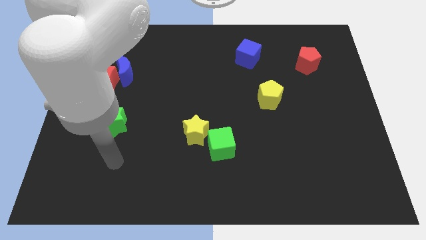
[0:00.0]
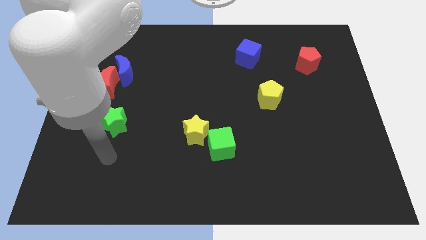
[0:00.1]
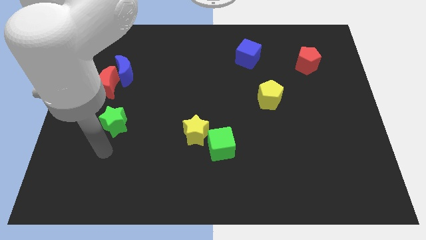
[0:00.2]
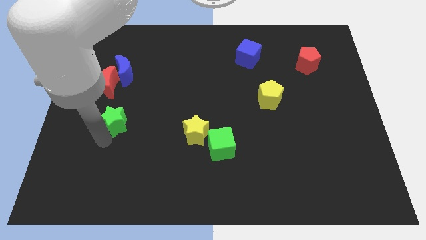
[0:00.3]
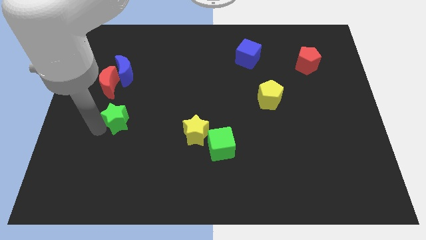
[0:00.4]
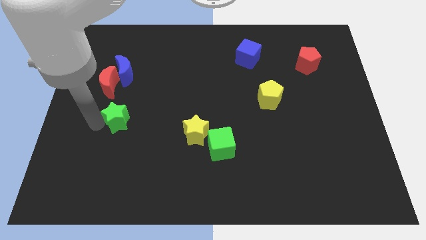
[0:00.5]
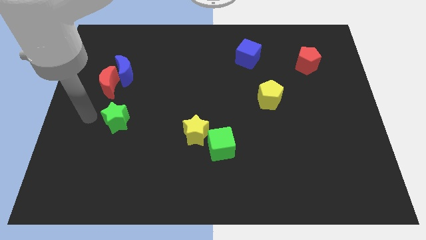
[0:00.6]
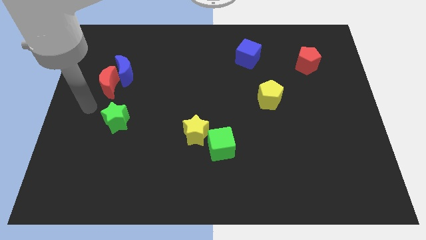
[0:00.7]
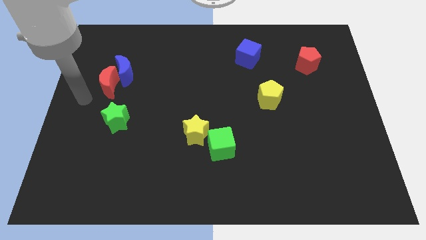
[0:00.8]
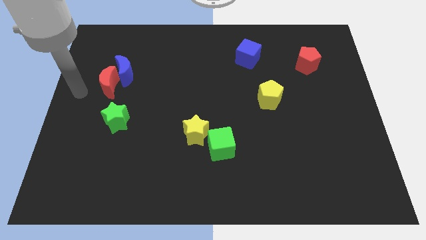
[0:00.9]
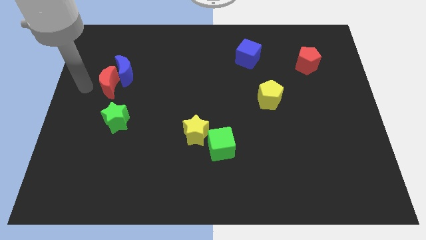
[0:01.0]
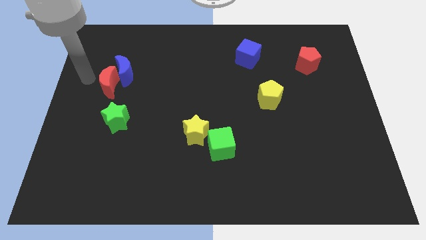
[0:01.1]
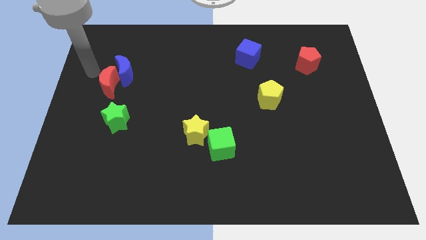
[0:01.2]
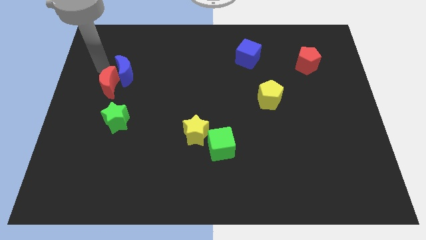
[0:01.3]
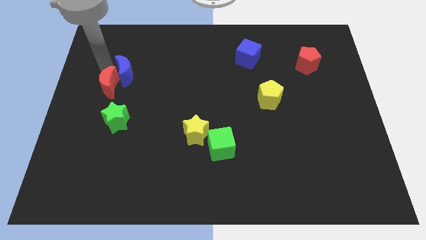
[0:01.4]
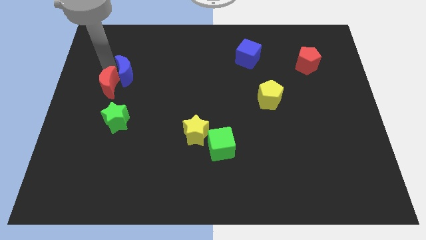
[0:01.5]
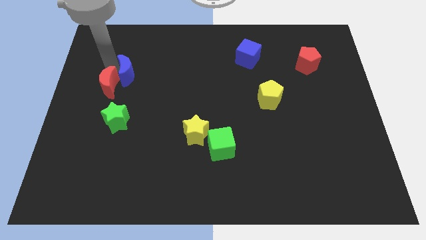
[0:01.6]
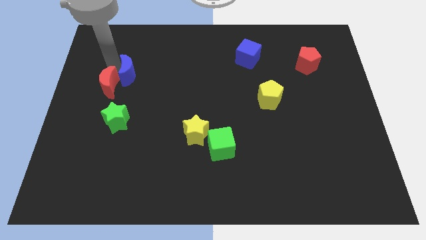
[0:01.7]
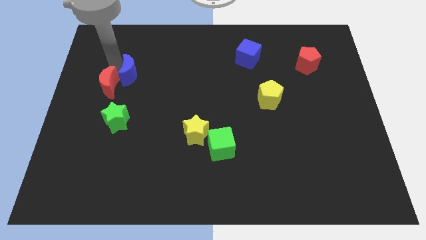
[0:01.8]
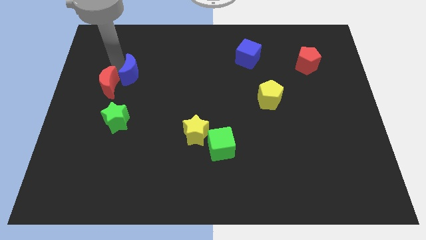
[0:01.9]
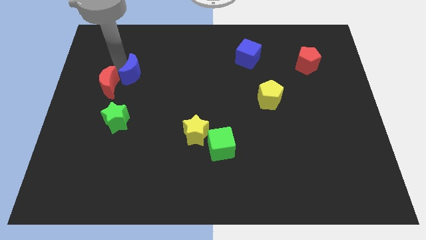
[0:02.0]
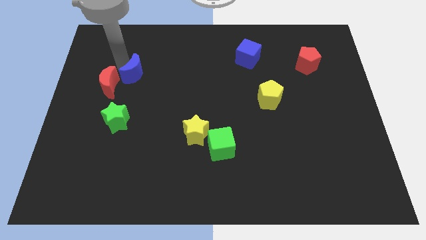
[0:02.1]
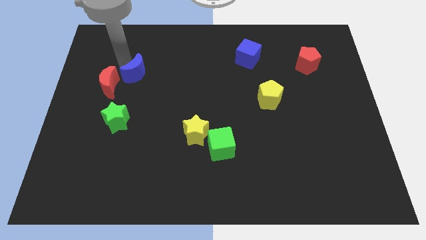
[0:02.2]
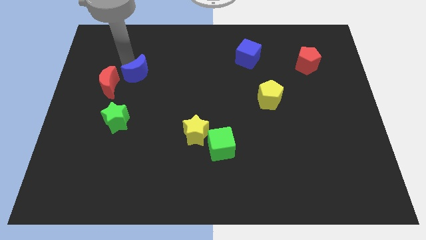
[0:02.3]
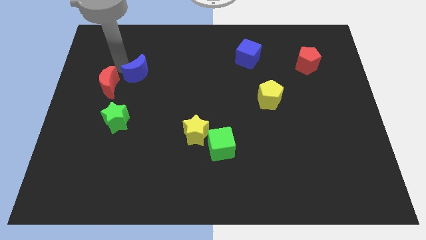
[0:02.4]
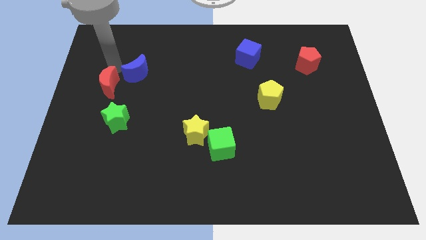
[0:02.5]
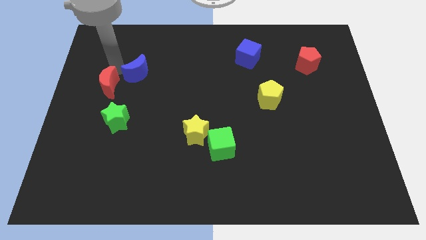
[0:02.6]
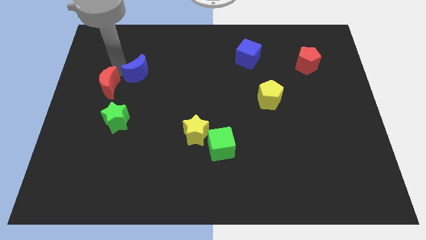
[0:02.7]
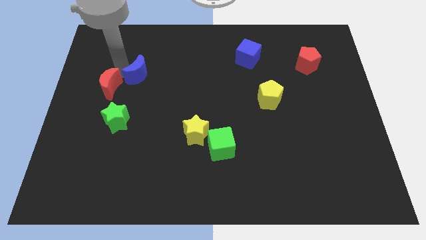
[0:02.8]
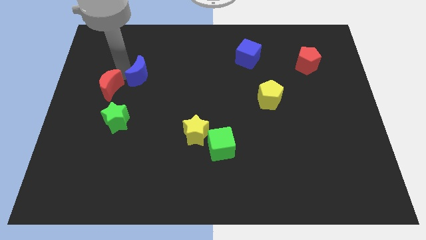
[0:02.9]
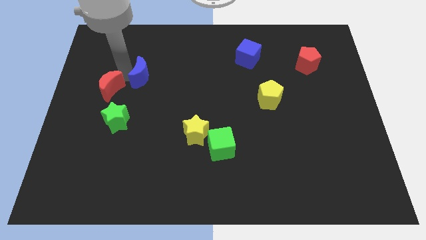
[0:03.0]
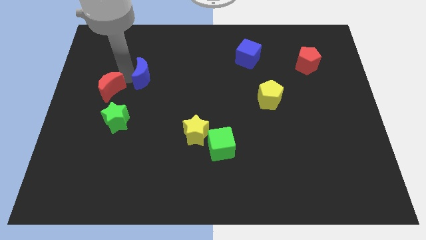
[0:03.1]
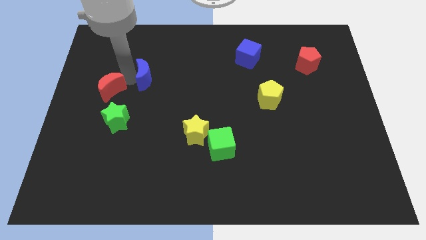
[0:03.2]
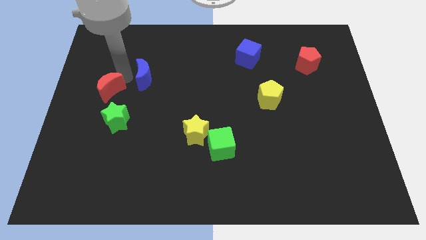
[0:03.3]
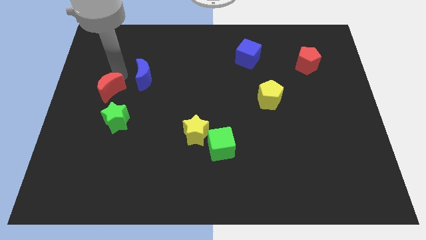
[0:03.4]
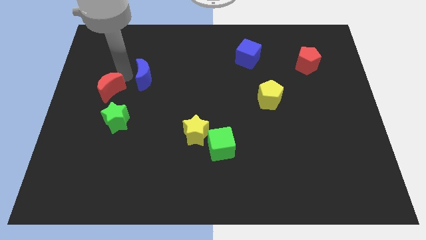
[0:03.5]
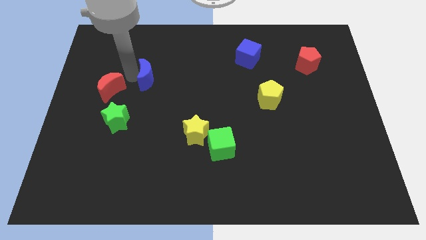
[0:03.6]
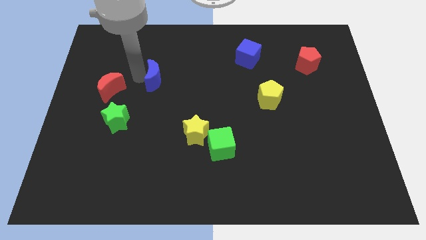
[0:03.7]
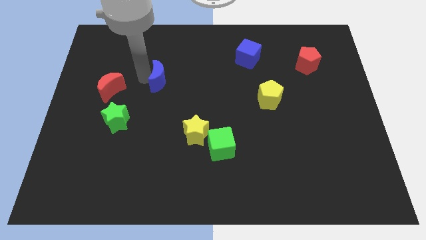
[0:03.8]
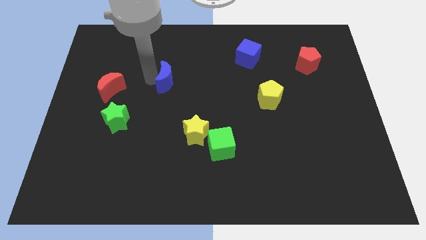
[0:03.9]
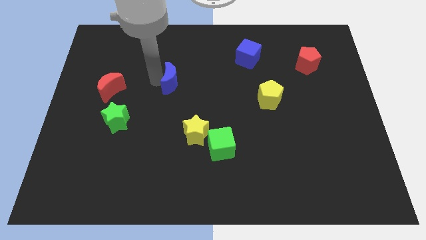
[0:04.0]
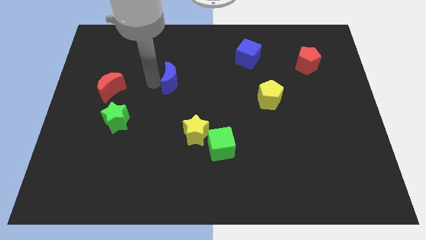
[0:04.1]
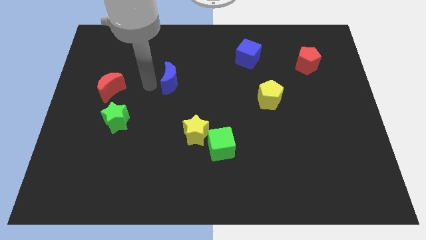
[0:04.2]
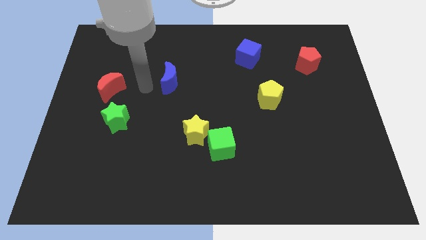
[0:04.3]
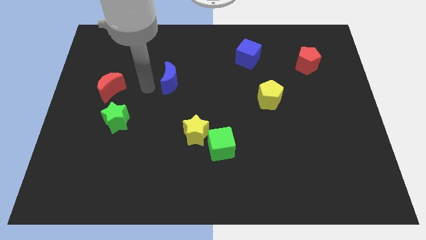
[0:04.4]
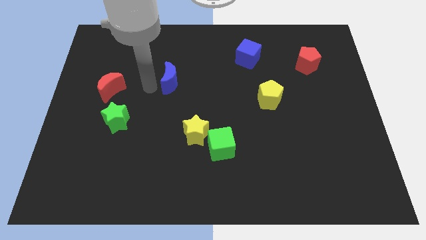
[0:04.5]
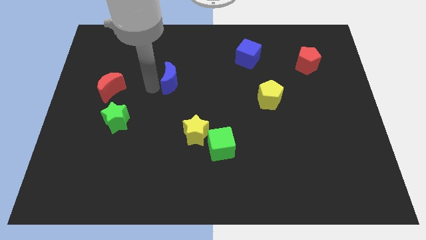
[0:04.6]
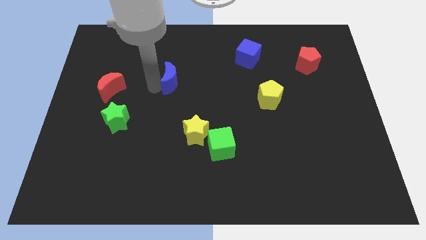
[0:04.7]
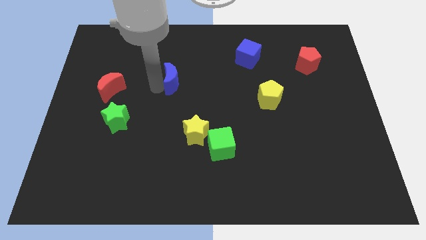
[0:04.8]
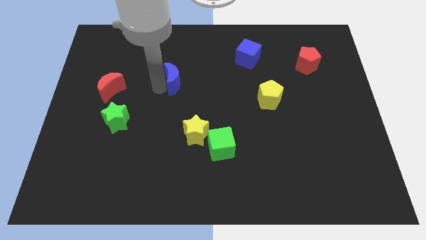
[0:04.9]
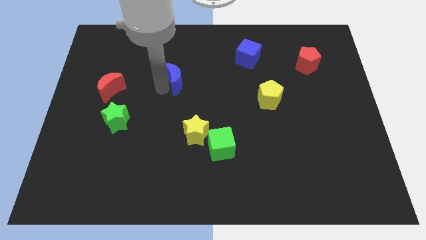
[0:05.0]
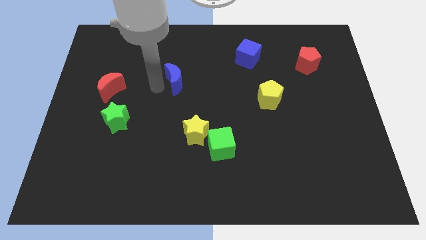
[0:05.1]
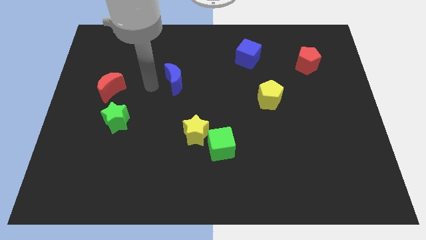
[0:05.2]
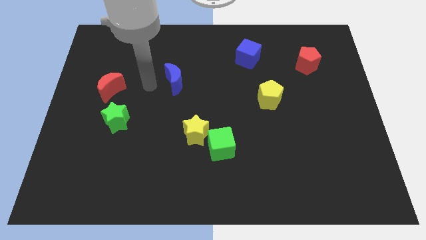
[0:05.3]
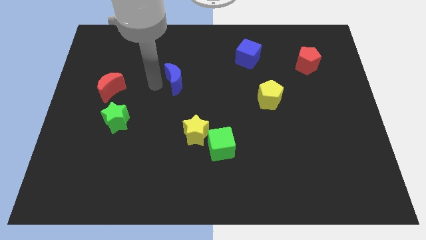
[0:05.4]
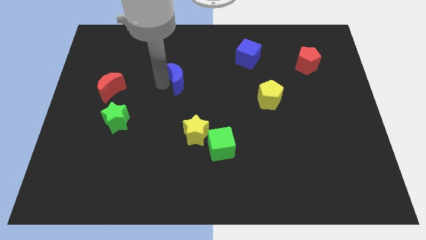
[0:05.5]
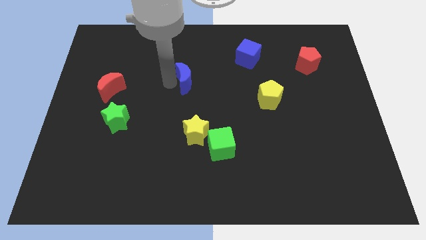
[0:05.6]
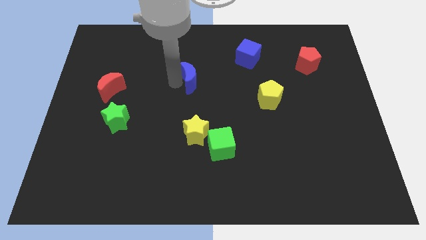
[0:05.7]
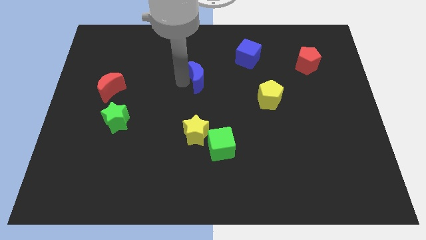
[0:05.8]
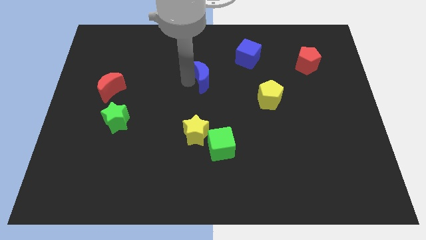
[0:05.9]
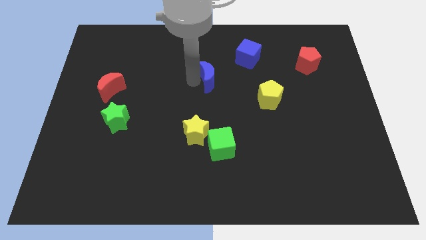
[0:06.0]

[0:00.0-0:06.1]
push the blue moon right

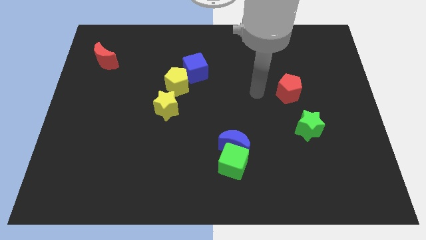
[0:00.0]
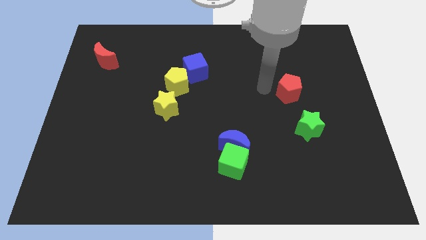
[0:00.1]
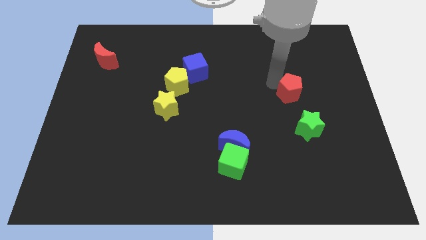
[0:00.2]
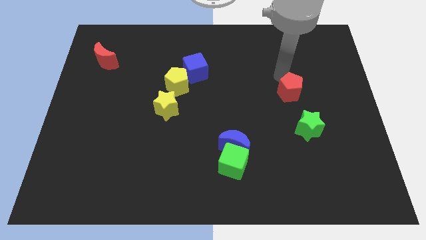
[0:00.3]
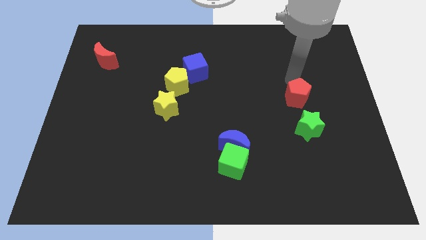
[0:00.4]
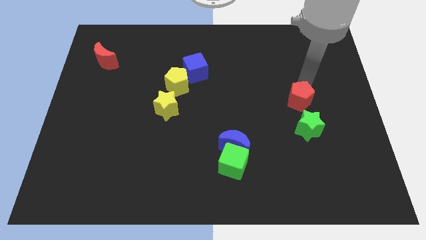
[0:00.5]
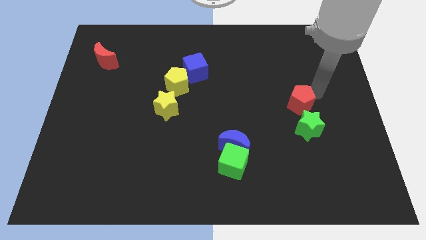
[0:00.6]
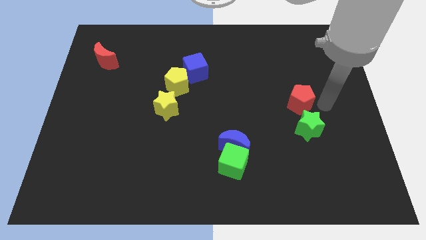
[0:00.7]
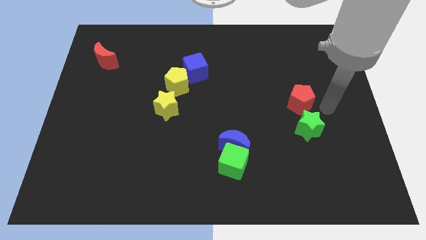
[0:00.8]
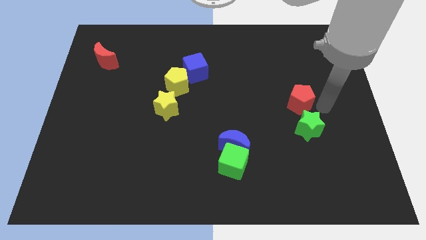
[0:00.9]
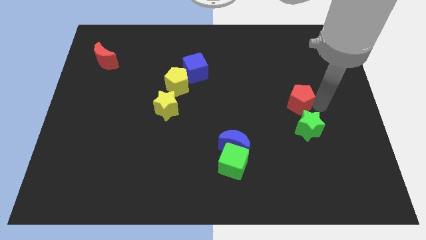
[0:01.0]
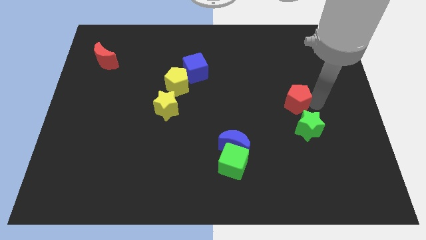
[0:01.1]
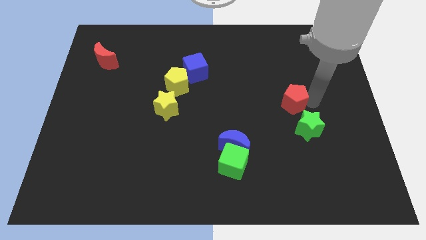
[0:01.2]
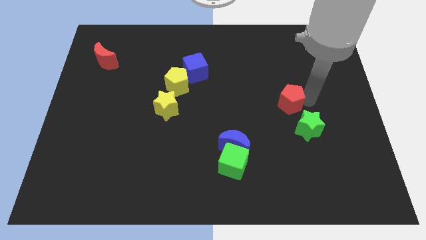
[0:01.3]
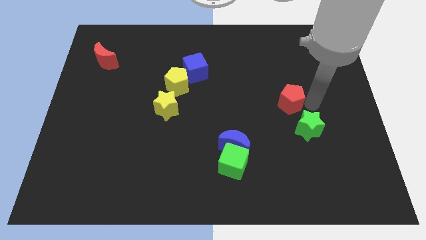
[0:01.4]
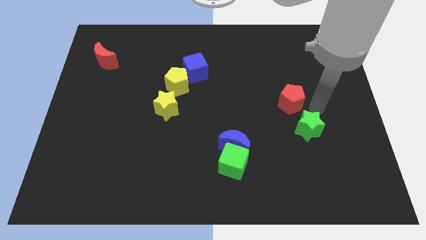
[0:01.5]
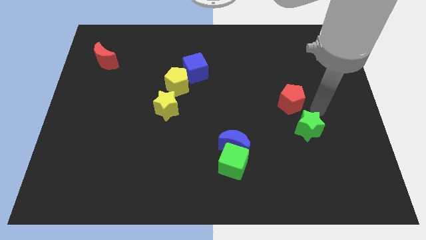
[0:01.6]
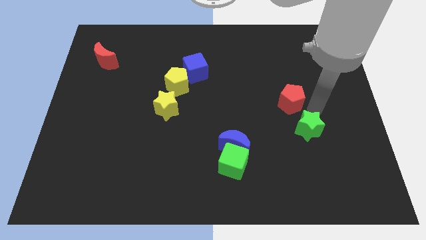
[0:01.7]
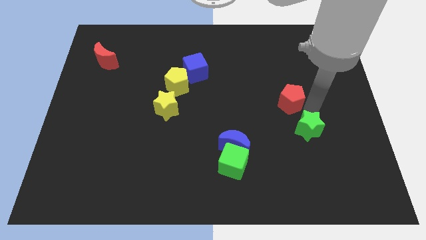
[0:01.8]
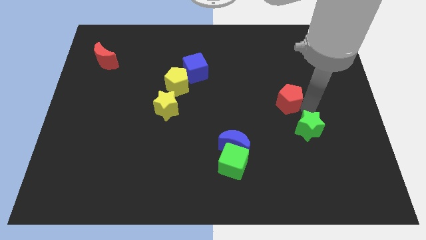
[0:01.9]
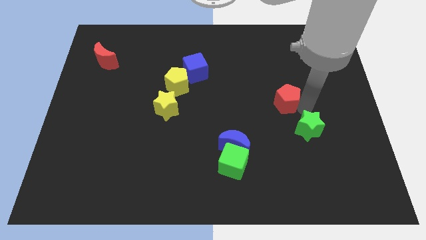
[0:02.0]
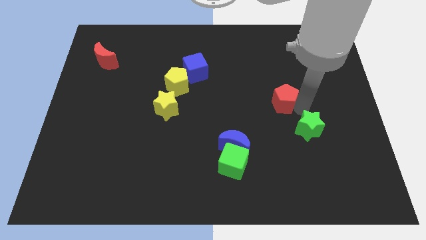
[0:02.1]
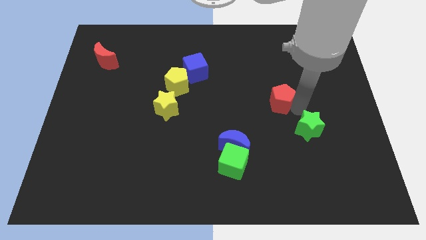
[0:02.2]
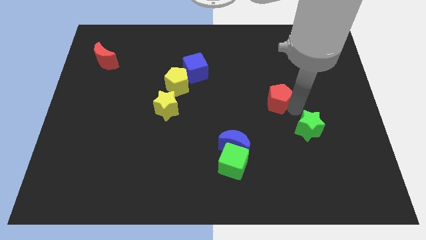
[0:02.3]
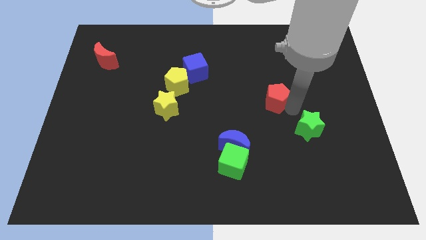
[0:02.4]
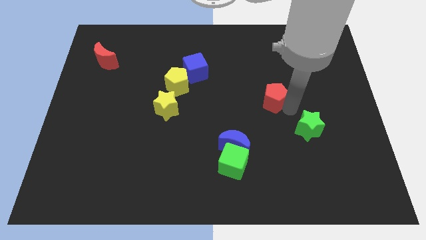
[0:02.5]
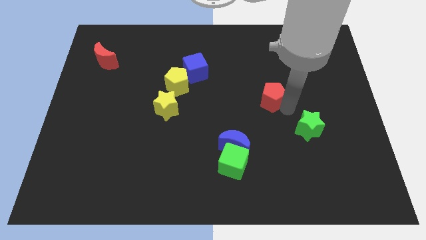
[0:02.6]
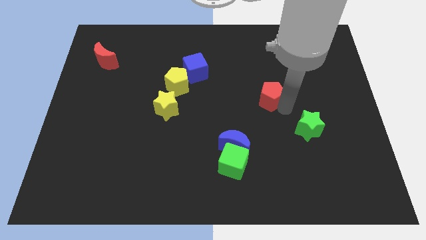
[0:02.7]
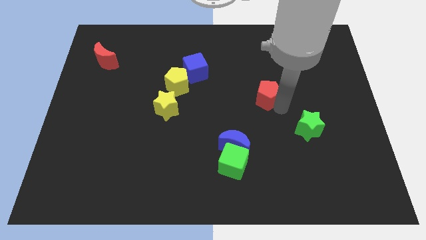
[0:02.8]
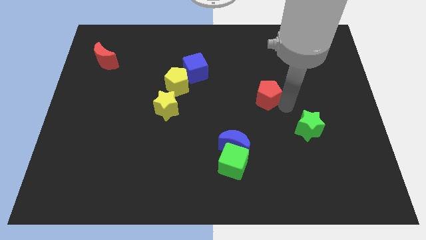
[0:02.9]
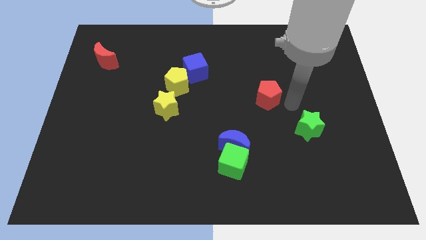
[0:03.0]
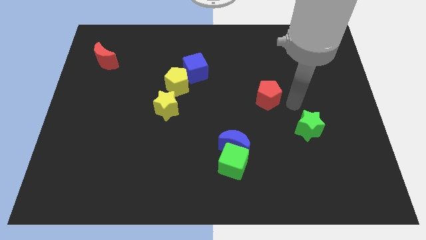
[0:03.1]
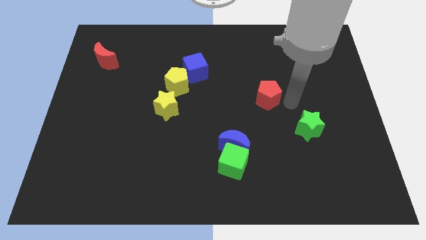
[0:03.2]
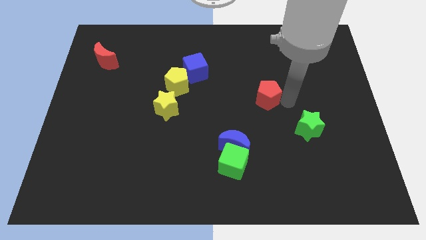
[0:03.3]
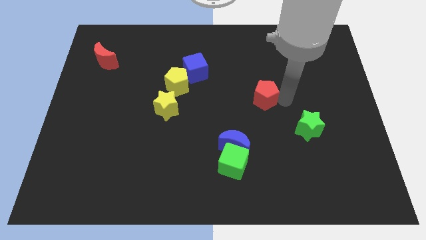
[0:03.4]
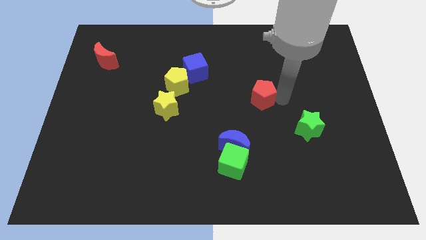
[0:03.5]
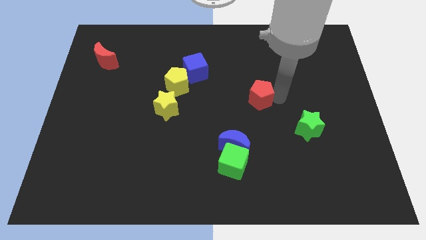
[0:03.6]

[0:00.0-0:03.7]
push the red pentagon a bit left
